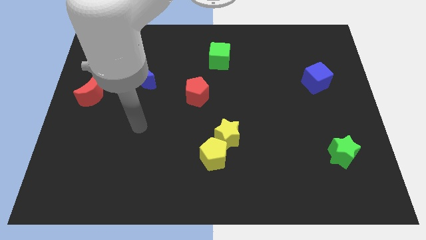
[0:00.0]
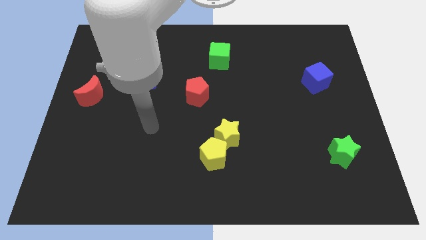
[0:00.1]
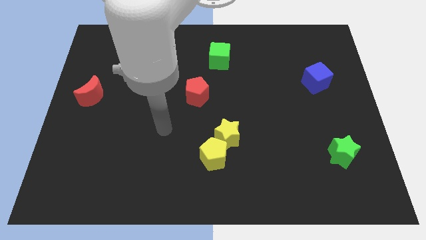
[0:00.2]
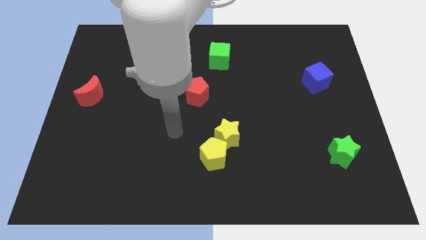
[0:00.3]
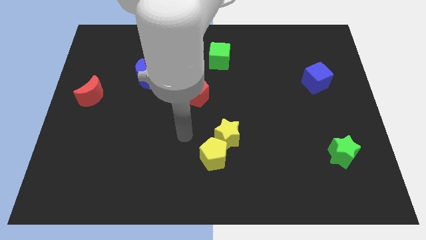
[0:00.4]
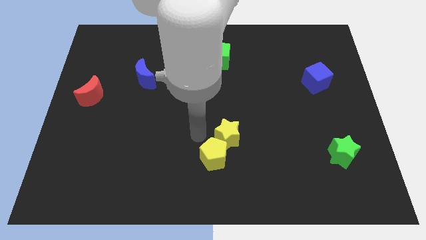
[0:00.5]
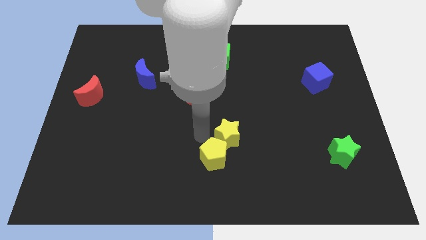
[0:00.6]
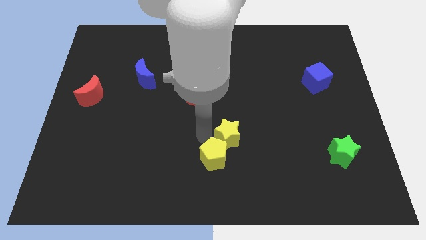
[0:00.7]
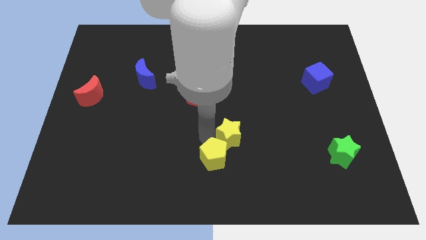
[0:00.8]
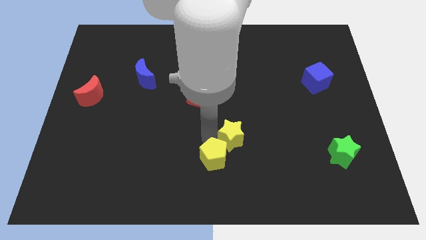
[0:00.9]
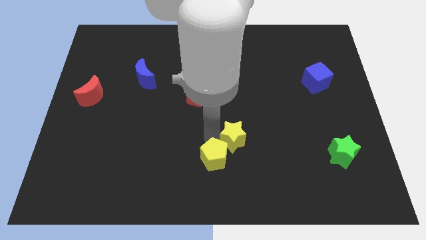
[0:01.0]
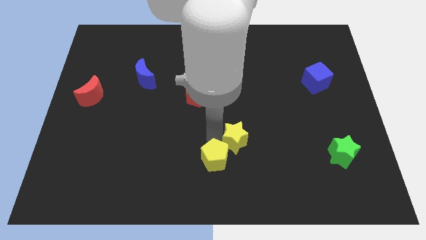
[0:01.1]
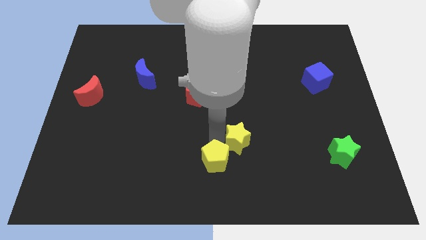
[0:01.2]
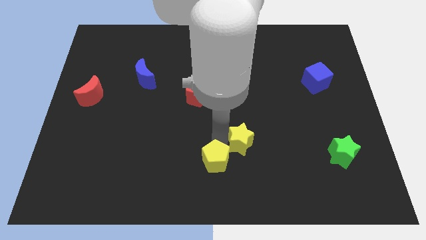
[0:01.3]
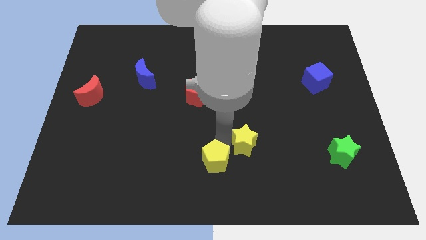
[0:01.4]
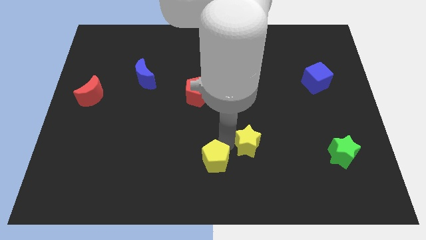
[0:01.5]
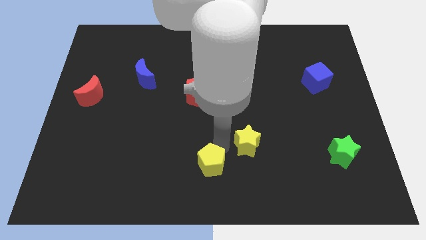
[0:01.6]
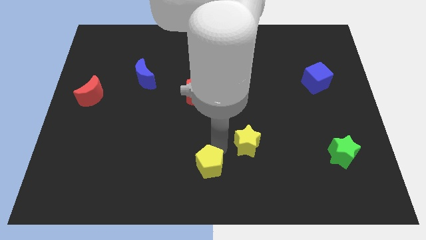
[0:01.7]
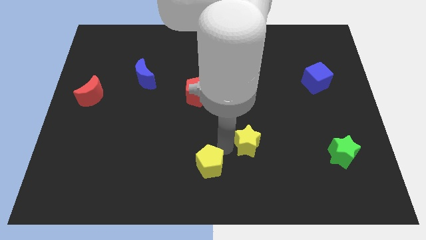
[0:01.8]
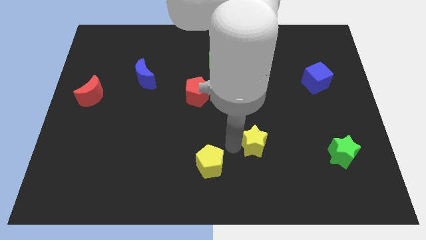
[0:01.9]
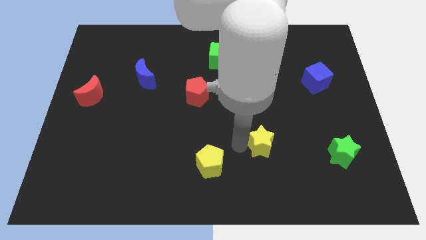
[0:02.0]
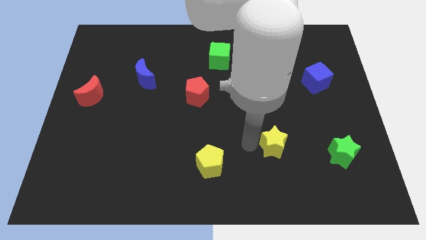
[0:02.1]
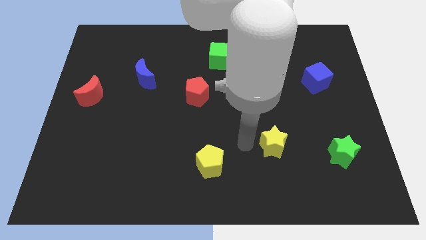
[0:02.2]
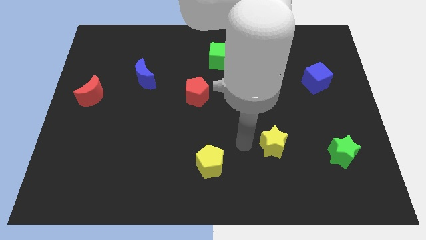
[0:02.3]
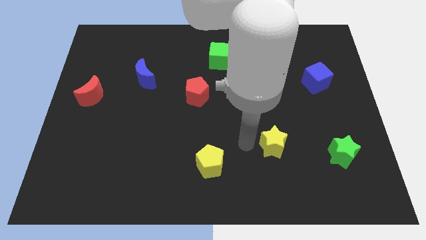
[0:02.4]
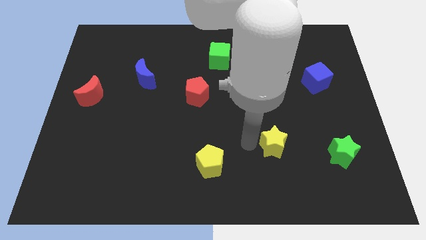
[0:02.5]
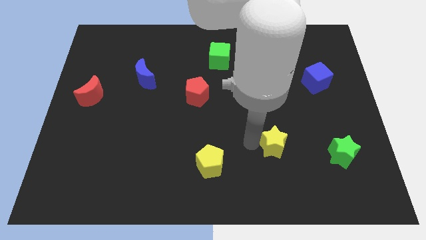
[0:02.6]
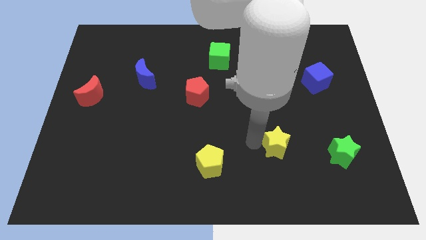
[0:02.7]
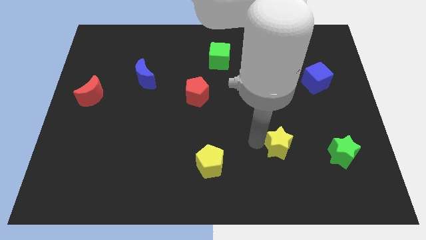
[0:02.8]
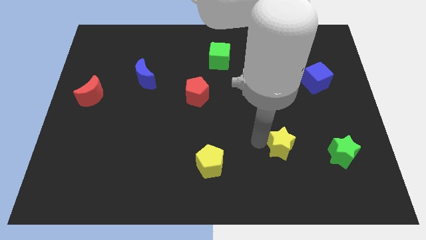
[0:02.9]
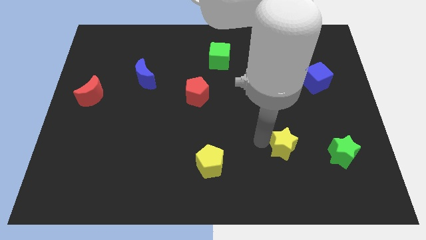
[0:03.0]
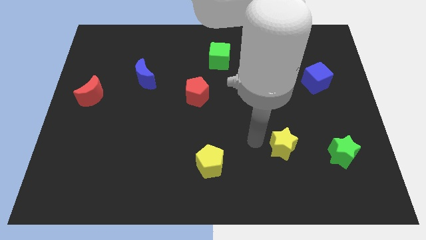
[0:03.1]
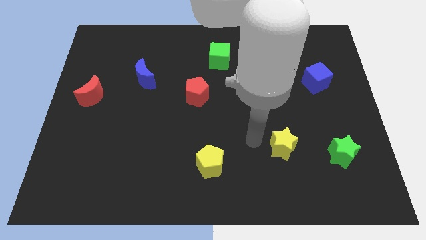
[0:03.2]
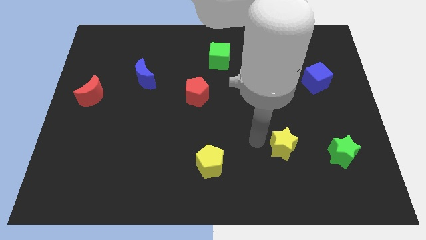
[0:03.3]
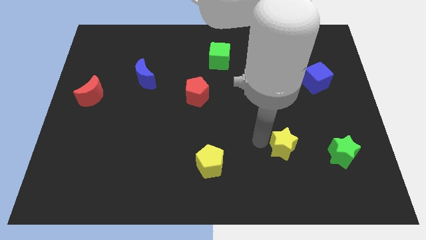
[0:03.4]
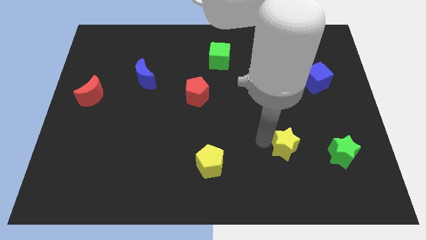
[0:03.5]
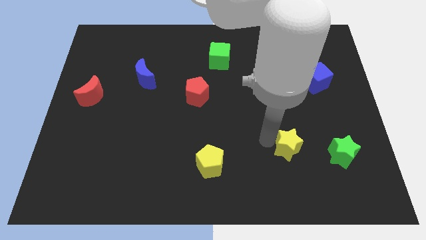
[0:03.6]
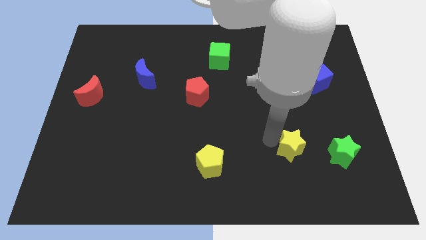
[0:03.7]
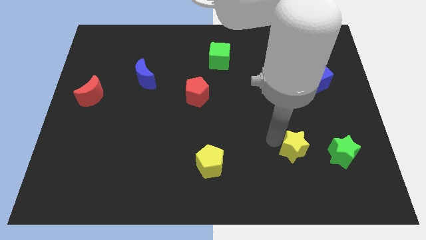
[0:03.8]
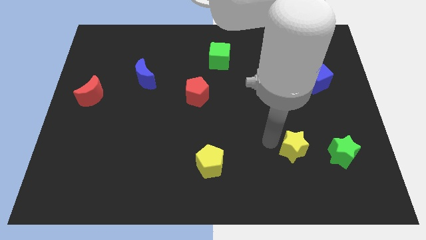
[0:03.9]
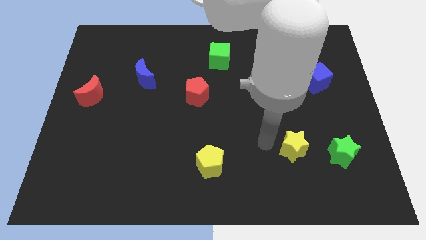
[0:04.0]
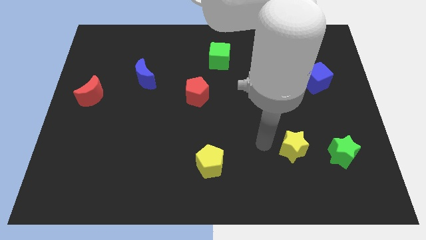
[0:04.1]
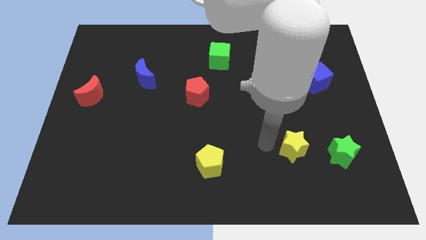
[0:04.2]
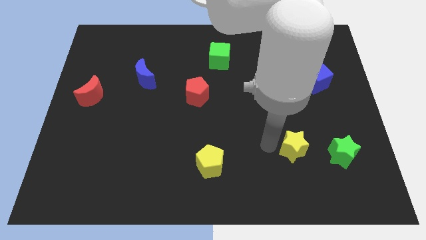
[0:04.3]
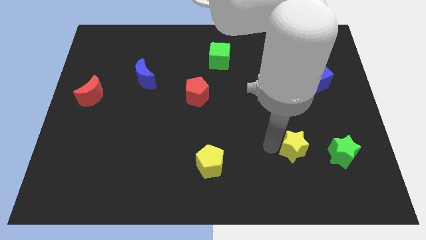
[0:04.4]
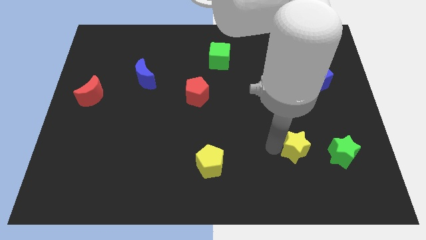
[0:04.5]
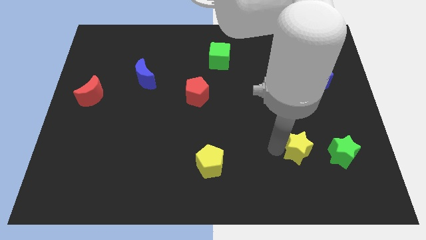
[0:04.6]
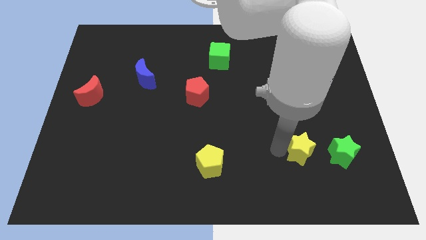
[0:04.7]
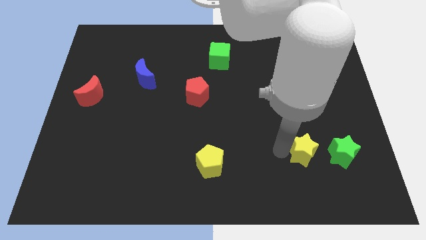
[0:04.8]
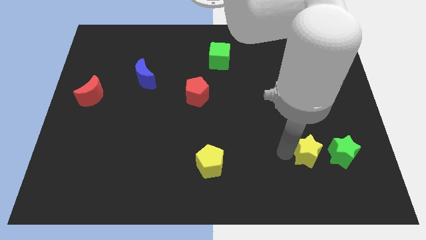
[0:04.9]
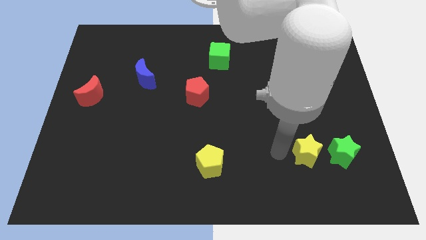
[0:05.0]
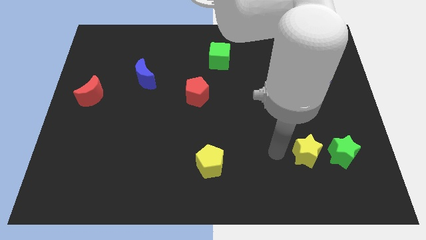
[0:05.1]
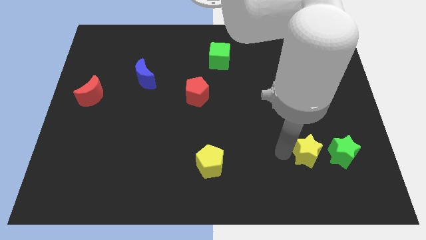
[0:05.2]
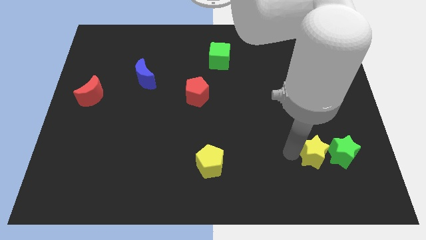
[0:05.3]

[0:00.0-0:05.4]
move the yellow star towards the green star

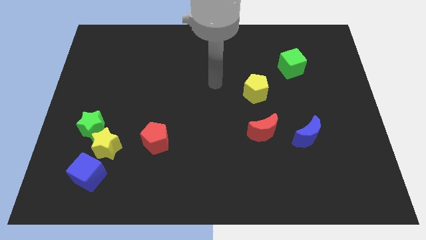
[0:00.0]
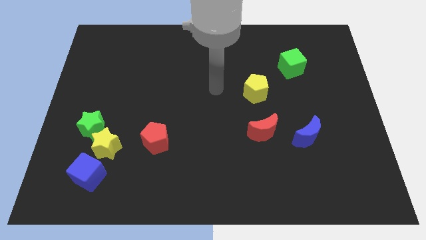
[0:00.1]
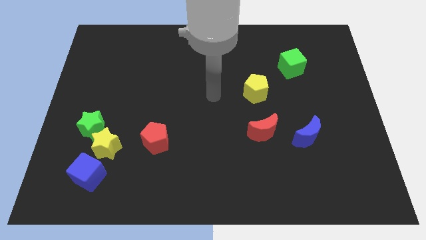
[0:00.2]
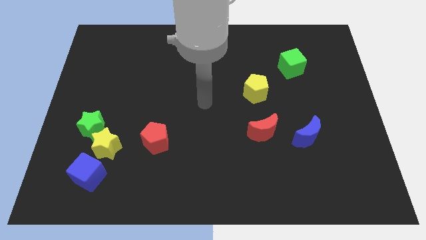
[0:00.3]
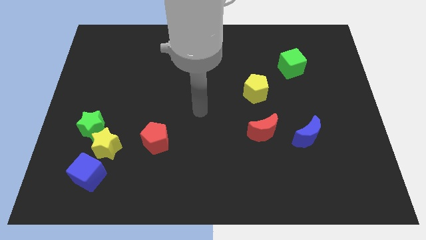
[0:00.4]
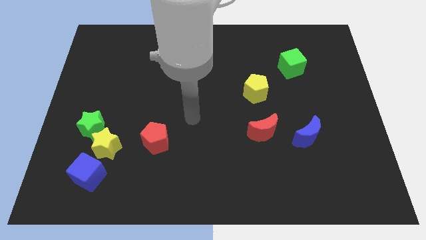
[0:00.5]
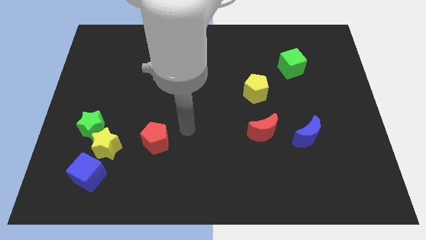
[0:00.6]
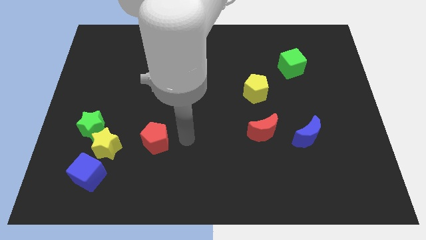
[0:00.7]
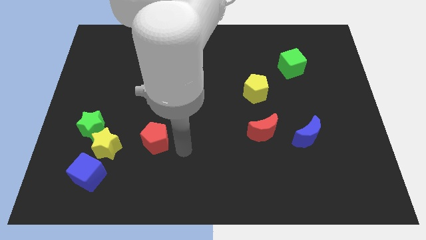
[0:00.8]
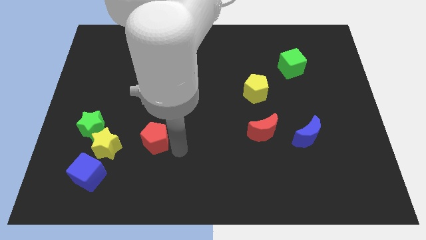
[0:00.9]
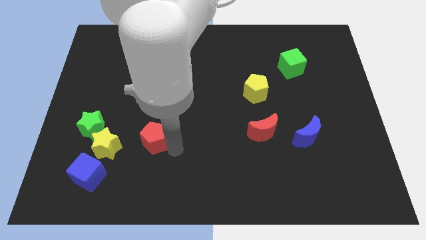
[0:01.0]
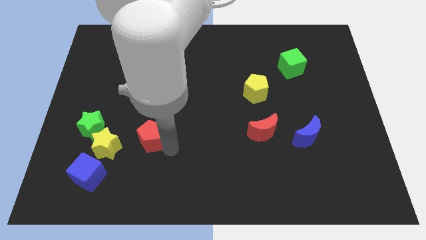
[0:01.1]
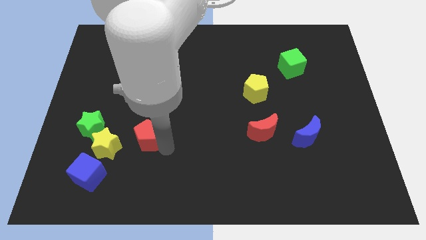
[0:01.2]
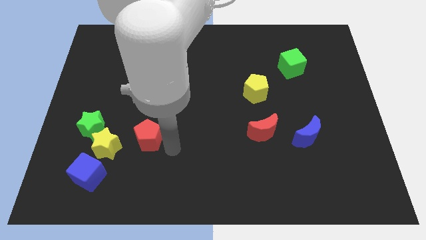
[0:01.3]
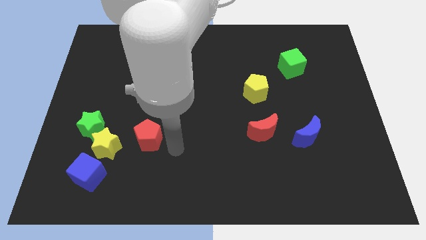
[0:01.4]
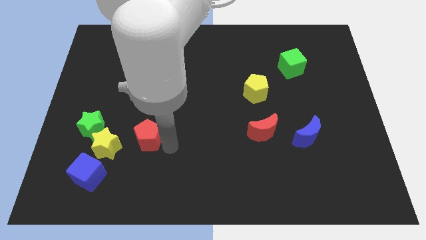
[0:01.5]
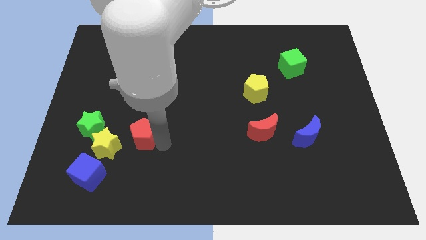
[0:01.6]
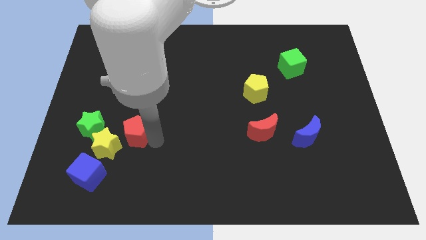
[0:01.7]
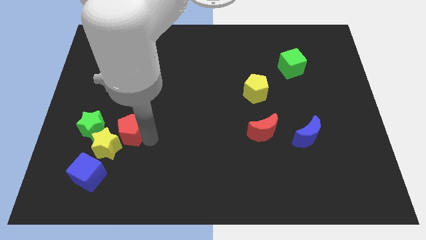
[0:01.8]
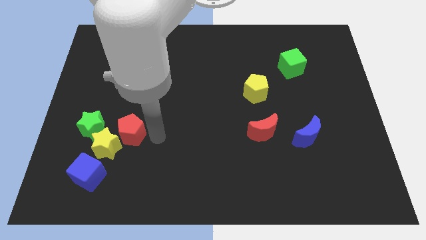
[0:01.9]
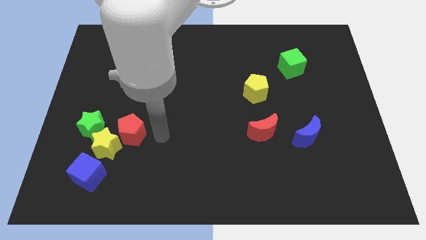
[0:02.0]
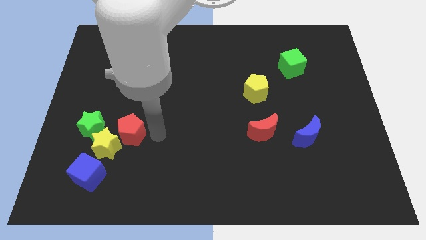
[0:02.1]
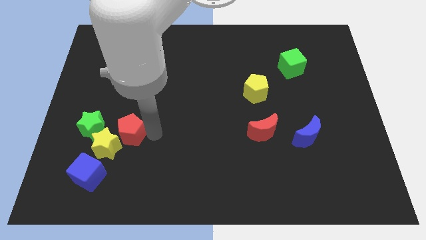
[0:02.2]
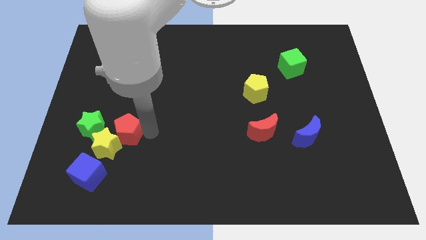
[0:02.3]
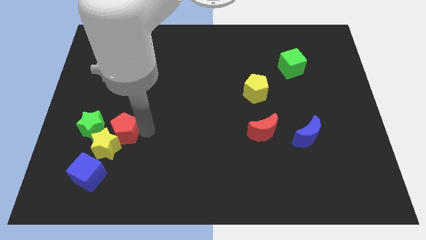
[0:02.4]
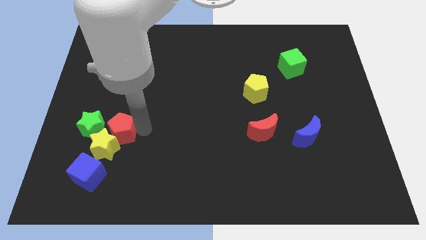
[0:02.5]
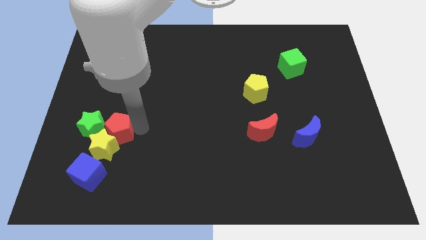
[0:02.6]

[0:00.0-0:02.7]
slide the red pentagon to the green star

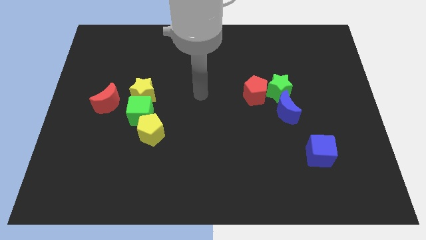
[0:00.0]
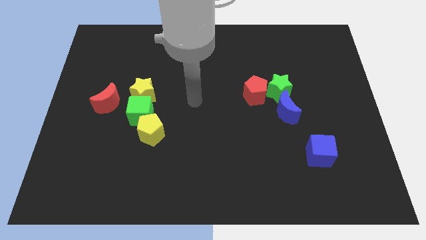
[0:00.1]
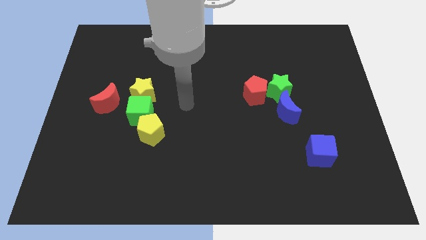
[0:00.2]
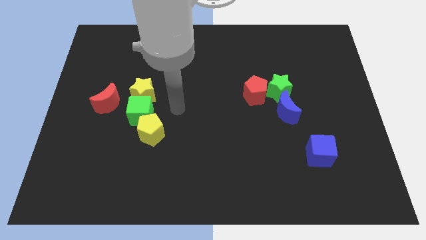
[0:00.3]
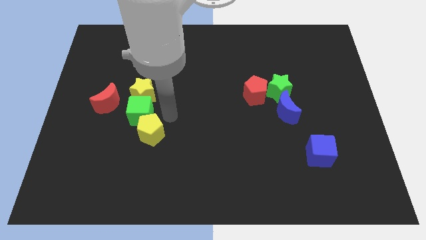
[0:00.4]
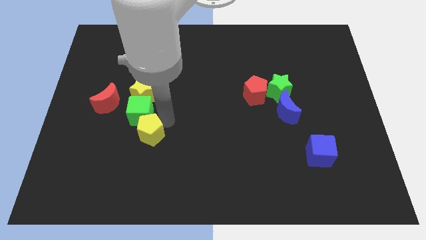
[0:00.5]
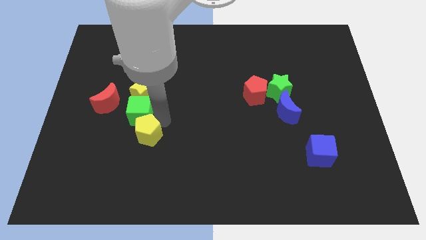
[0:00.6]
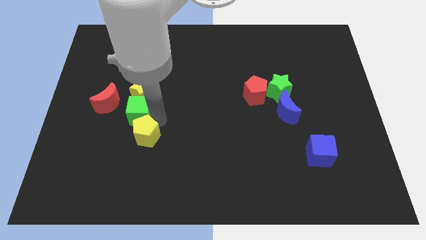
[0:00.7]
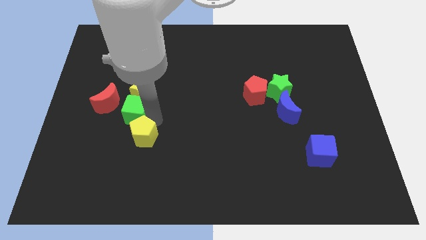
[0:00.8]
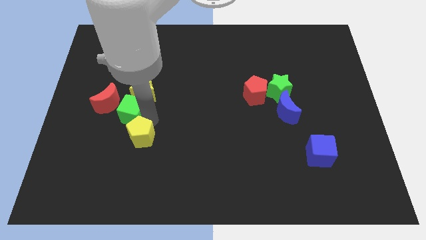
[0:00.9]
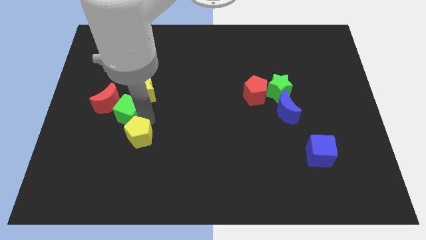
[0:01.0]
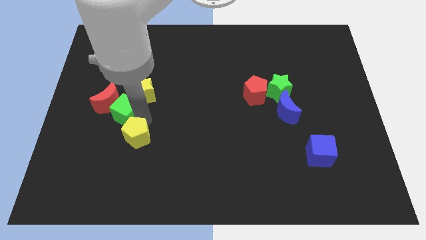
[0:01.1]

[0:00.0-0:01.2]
slide the green cube close to the red moon
